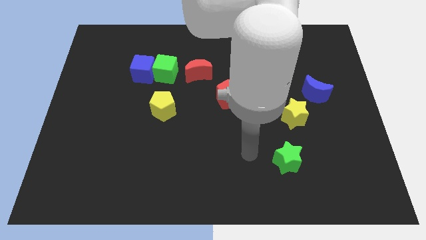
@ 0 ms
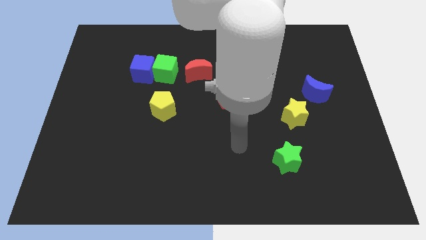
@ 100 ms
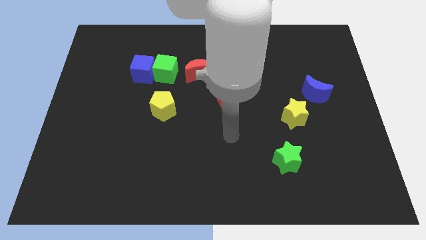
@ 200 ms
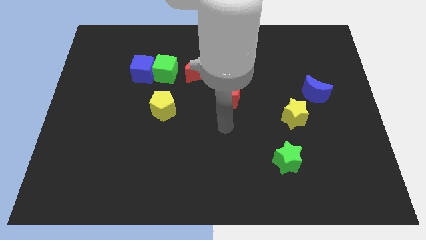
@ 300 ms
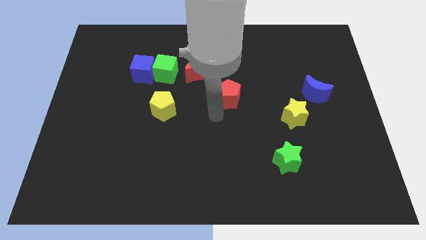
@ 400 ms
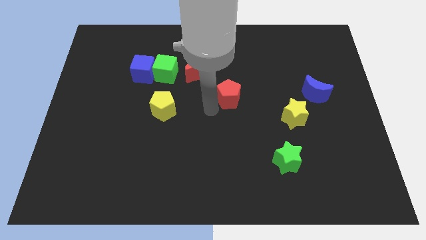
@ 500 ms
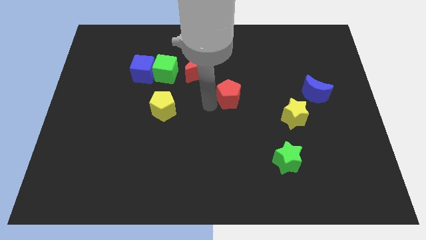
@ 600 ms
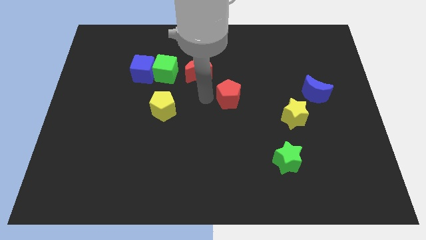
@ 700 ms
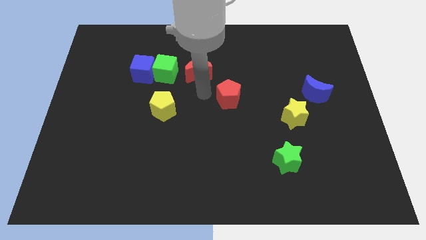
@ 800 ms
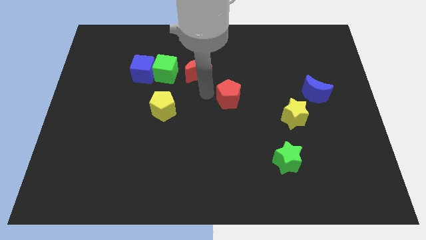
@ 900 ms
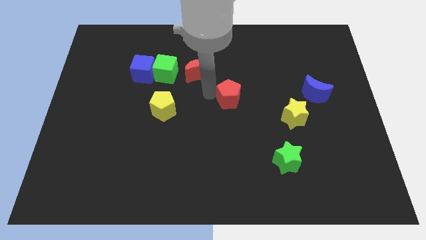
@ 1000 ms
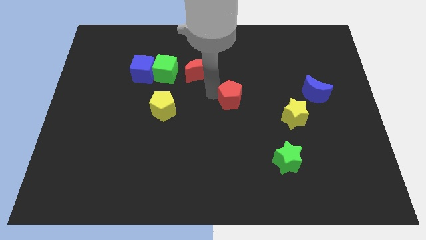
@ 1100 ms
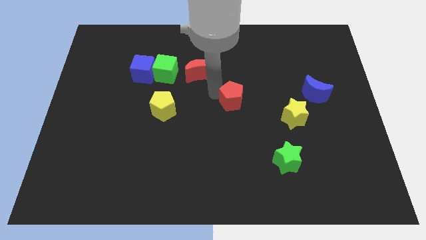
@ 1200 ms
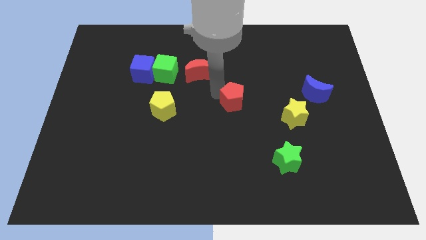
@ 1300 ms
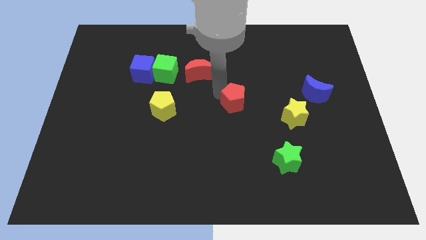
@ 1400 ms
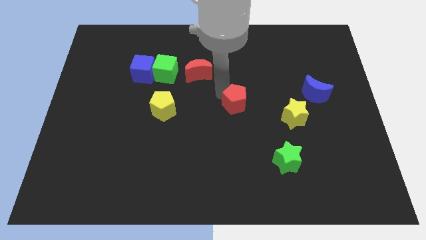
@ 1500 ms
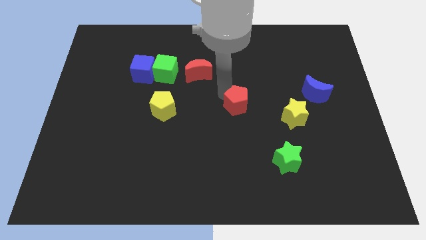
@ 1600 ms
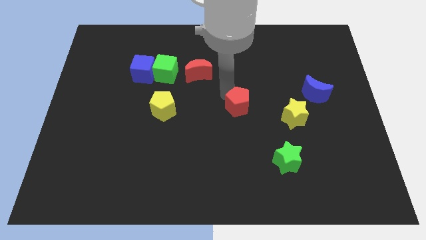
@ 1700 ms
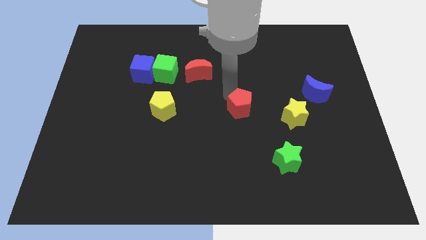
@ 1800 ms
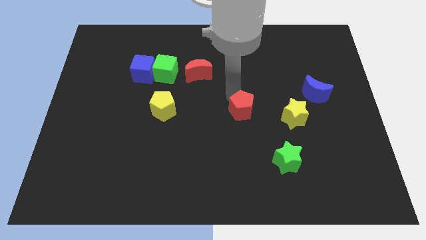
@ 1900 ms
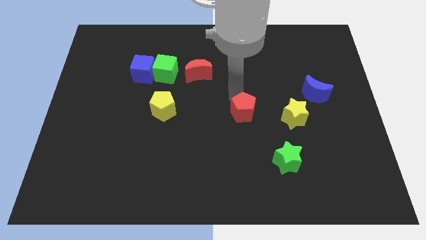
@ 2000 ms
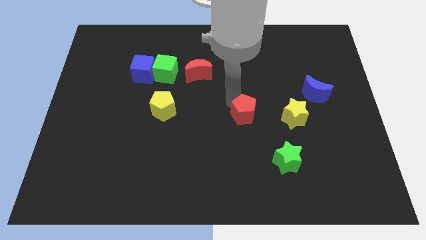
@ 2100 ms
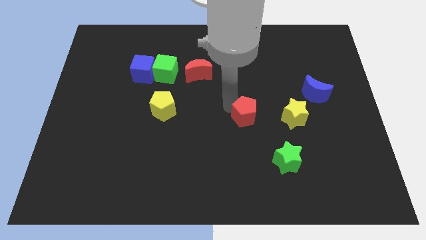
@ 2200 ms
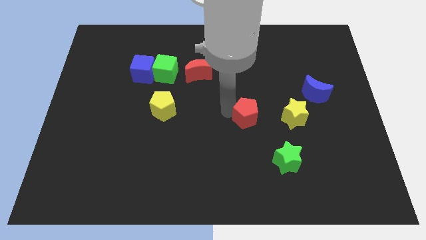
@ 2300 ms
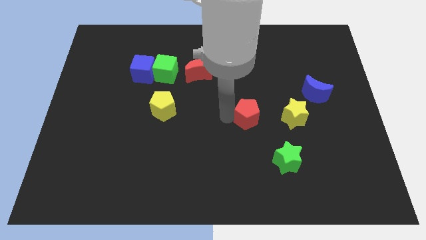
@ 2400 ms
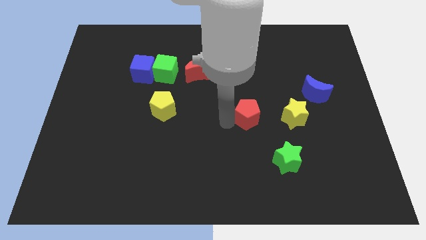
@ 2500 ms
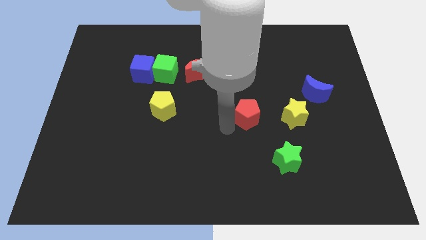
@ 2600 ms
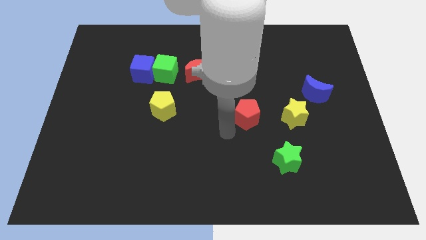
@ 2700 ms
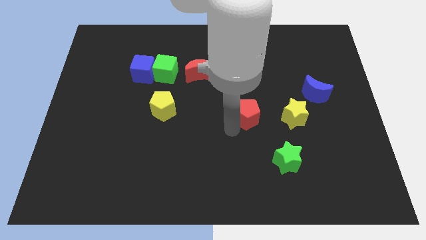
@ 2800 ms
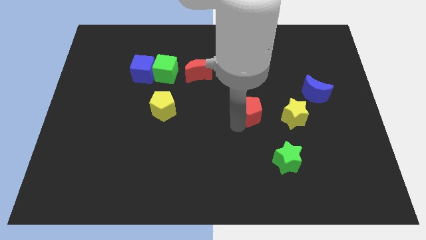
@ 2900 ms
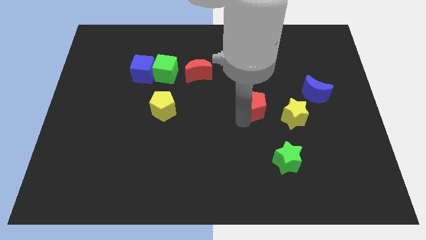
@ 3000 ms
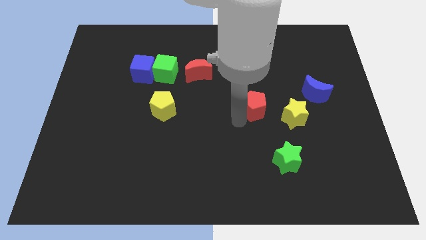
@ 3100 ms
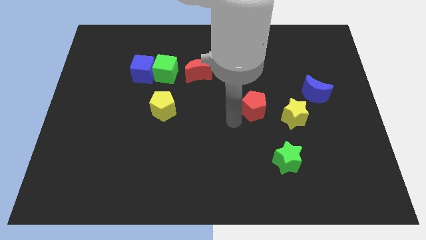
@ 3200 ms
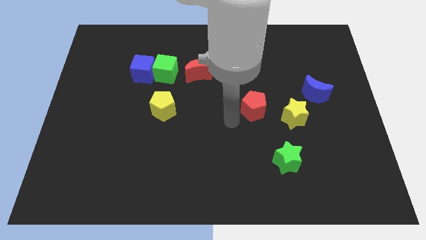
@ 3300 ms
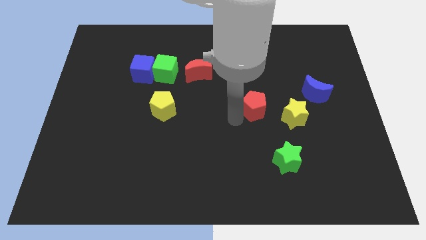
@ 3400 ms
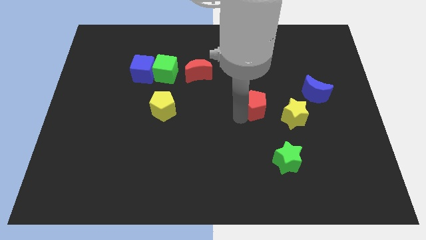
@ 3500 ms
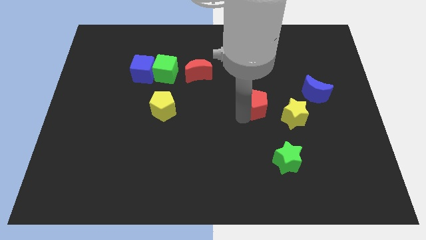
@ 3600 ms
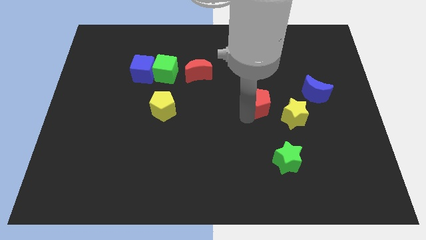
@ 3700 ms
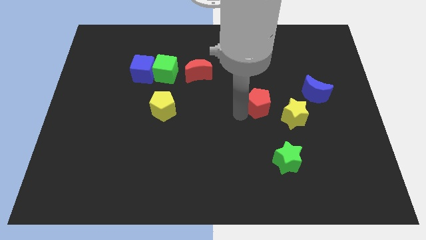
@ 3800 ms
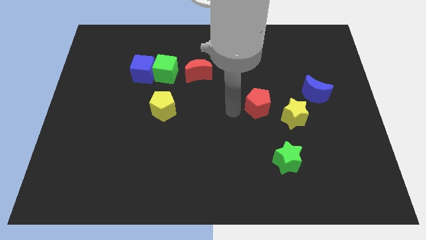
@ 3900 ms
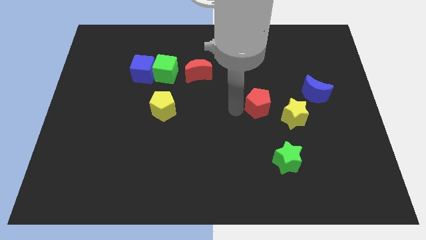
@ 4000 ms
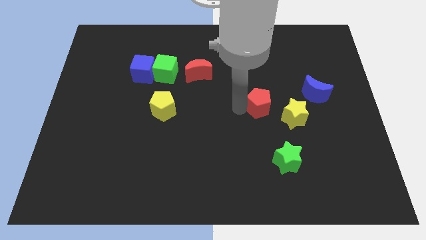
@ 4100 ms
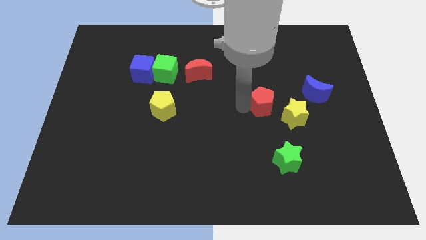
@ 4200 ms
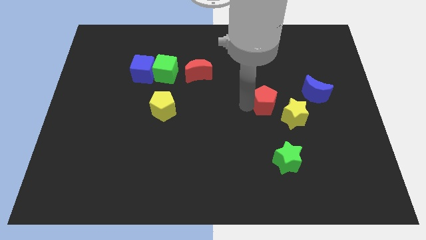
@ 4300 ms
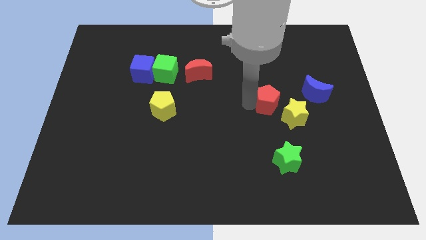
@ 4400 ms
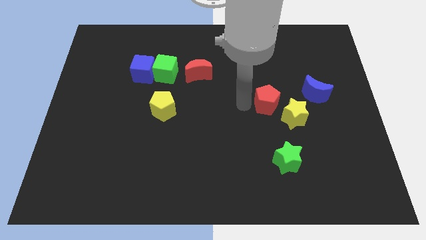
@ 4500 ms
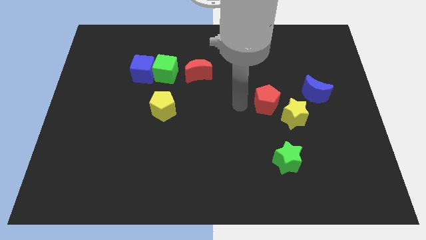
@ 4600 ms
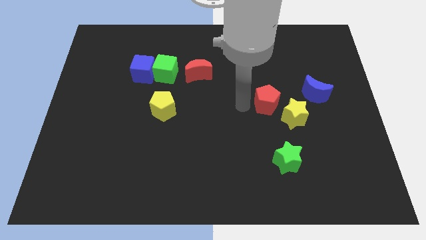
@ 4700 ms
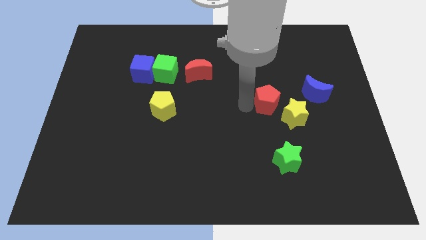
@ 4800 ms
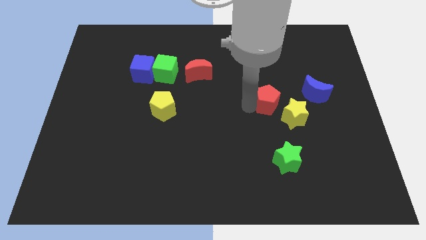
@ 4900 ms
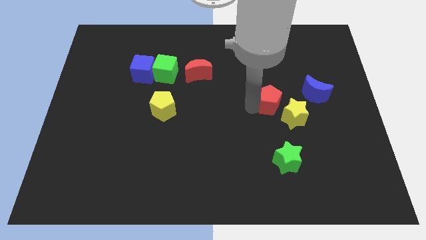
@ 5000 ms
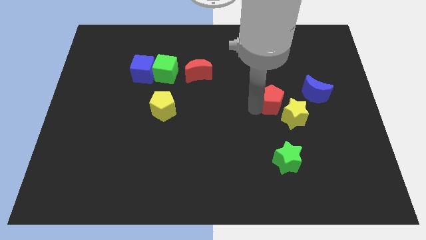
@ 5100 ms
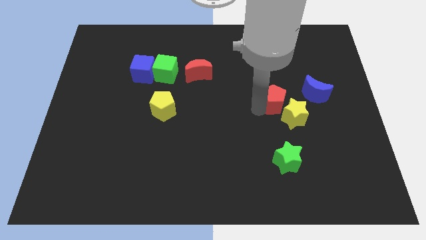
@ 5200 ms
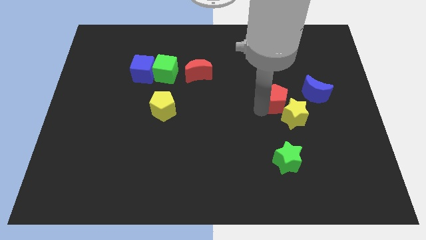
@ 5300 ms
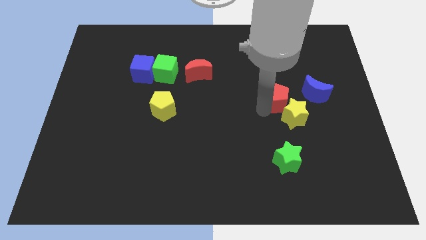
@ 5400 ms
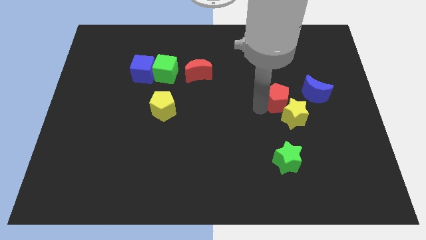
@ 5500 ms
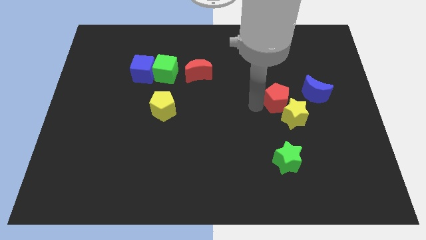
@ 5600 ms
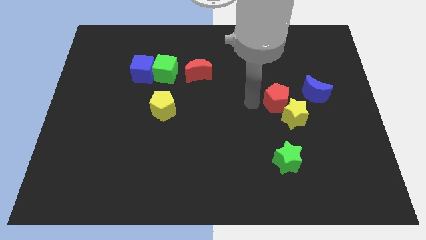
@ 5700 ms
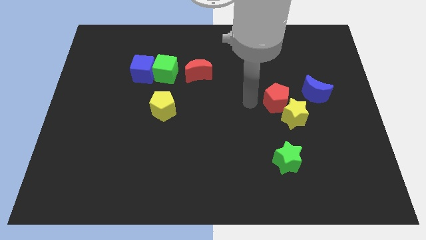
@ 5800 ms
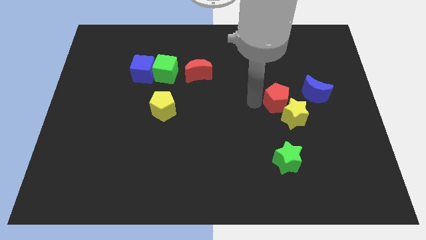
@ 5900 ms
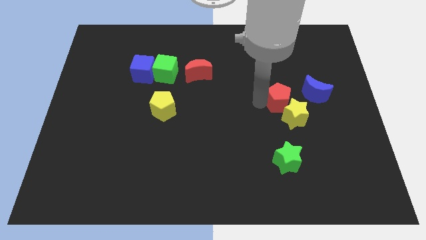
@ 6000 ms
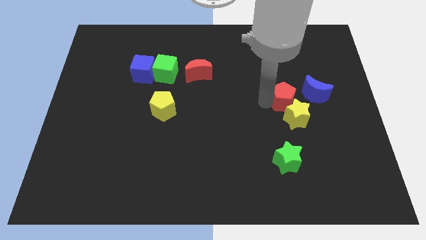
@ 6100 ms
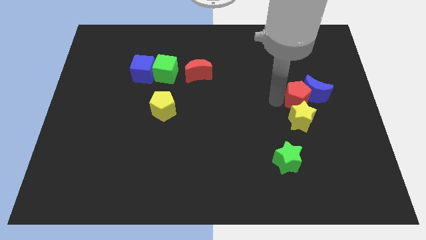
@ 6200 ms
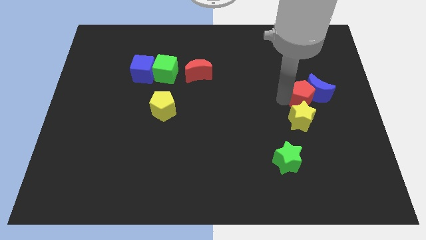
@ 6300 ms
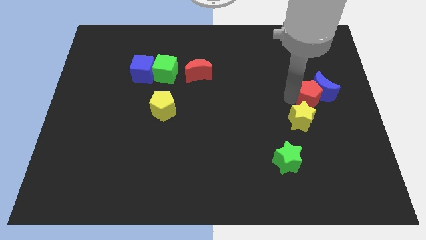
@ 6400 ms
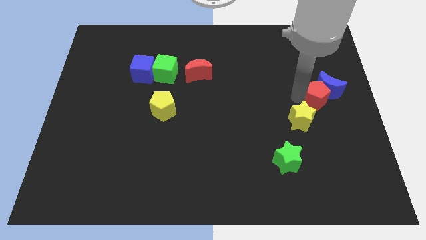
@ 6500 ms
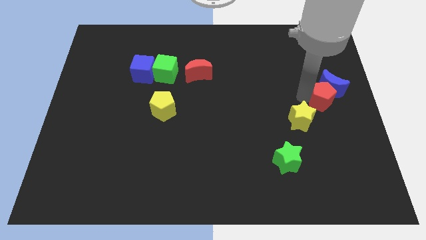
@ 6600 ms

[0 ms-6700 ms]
move the red pentagon to the right side of the board
